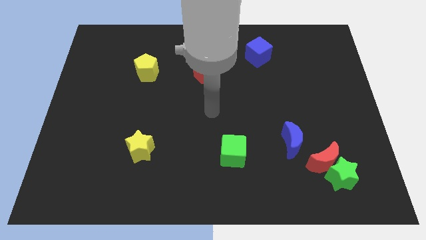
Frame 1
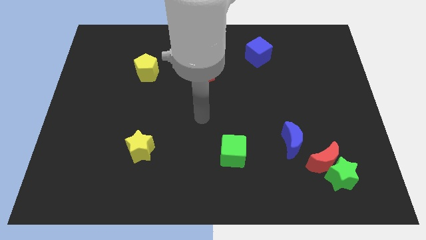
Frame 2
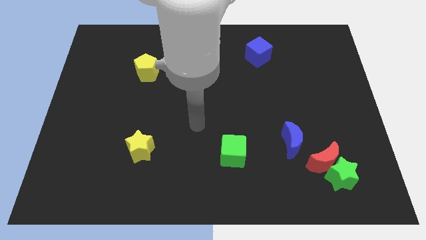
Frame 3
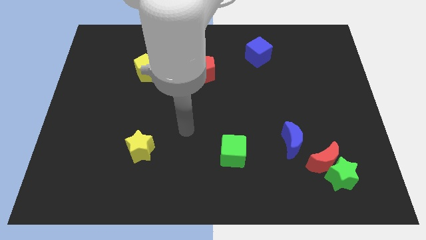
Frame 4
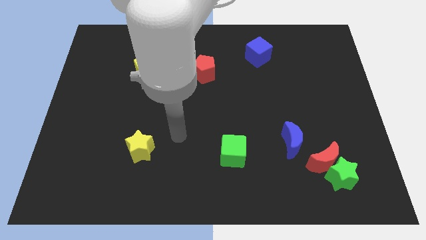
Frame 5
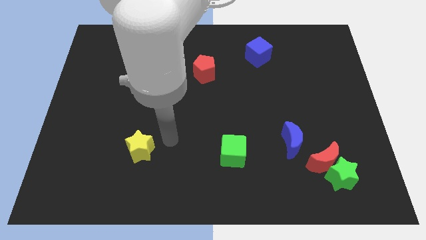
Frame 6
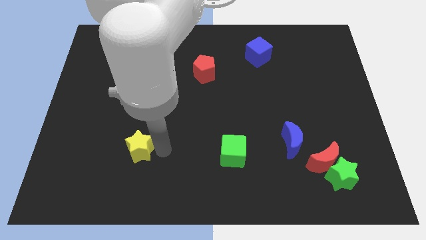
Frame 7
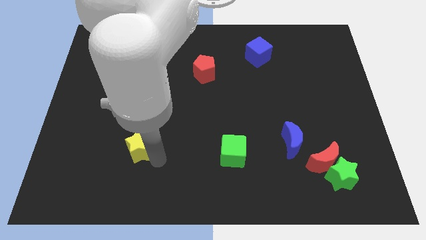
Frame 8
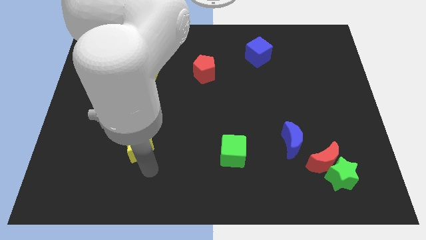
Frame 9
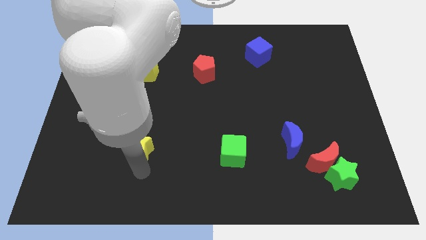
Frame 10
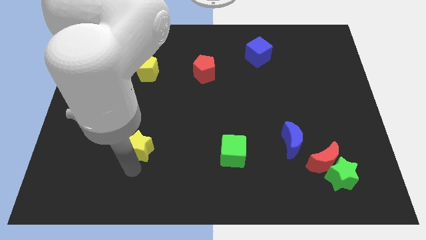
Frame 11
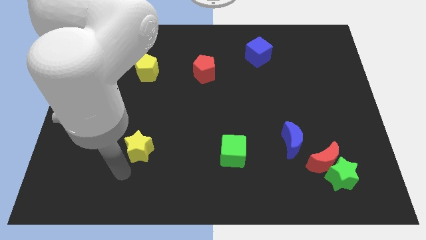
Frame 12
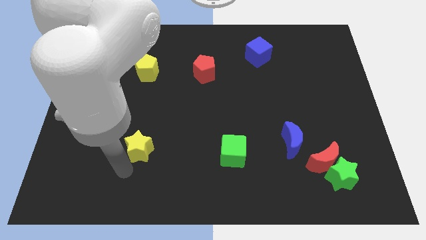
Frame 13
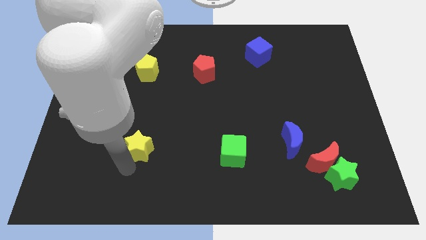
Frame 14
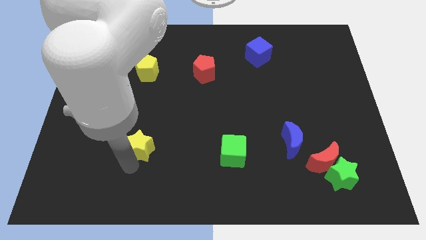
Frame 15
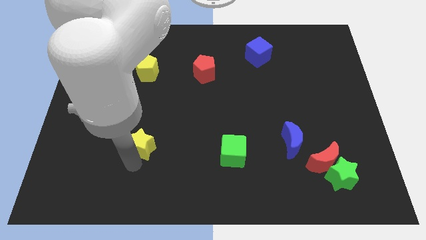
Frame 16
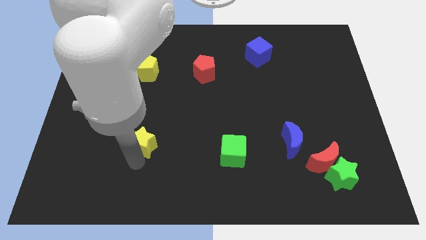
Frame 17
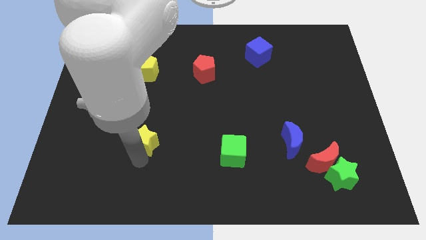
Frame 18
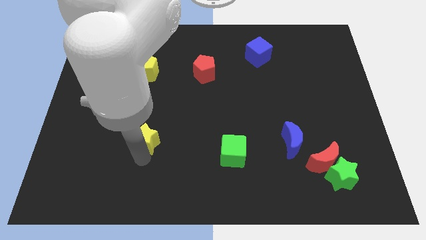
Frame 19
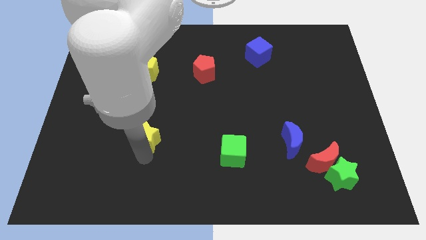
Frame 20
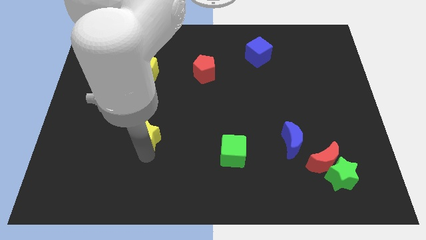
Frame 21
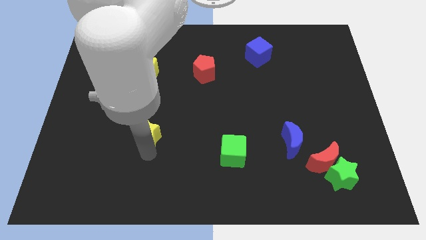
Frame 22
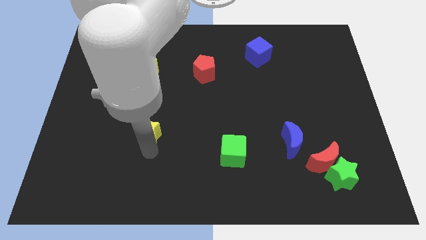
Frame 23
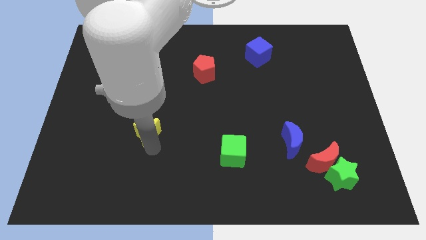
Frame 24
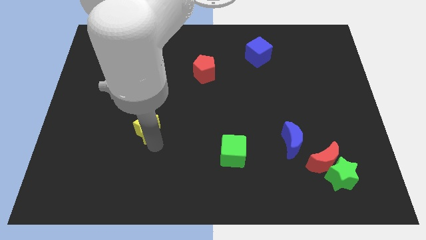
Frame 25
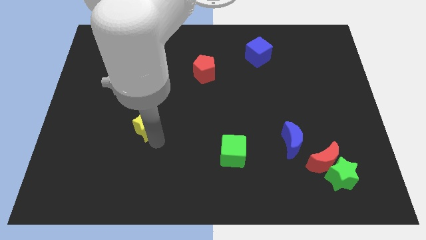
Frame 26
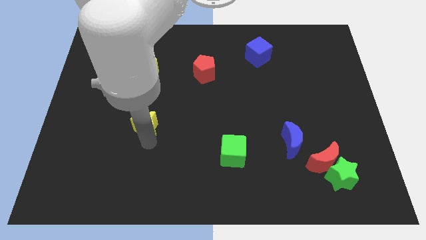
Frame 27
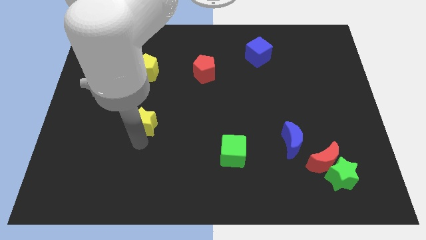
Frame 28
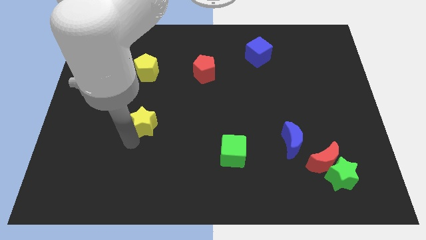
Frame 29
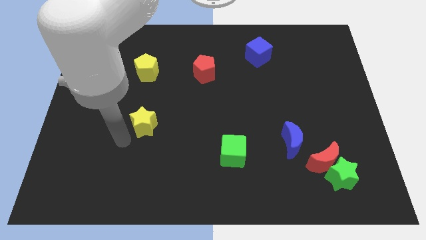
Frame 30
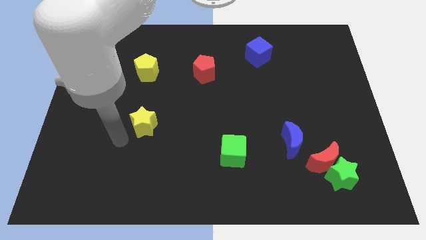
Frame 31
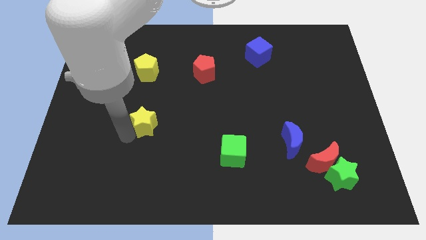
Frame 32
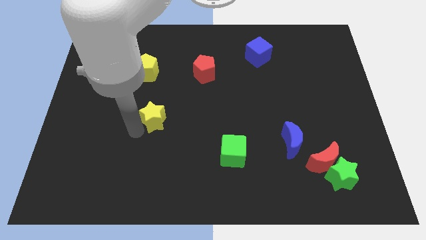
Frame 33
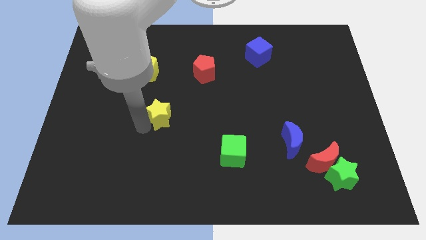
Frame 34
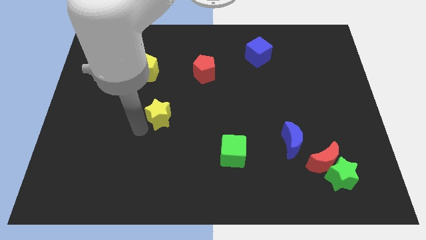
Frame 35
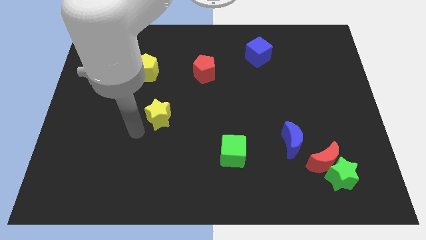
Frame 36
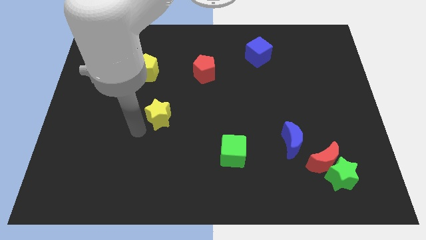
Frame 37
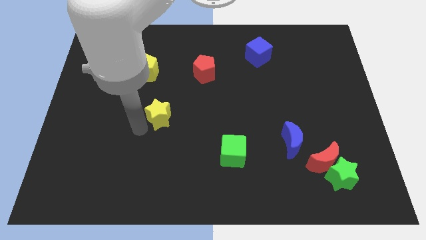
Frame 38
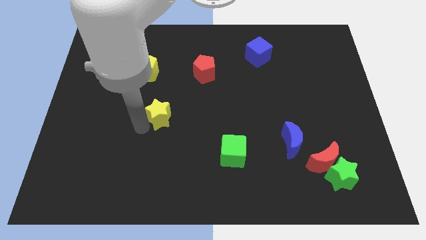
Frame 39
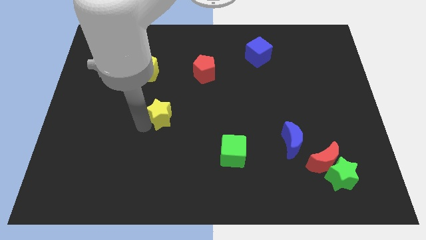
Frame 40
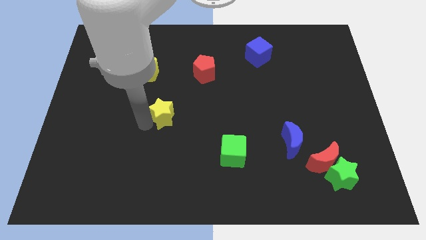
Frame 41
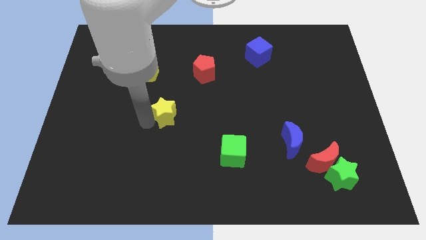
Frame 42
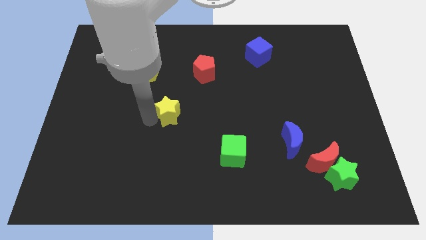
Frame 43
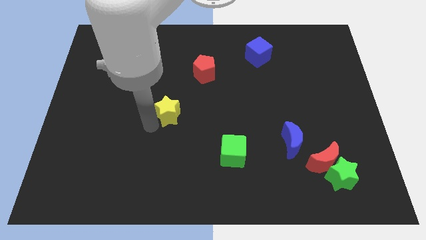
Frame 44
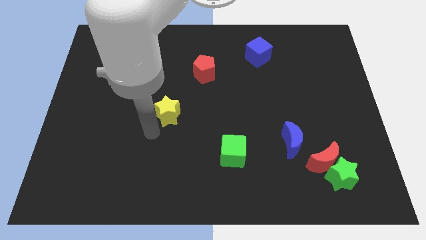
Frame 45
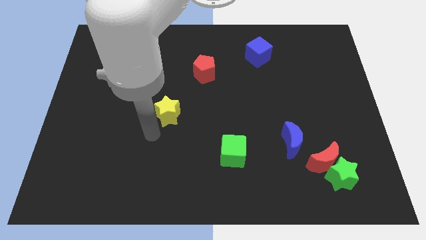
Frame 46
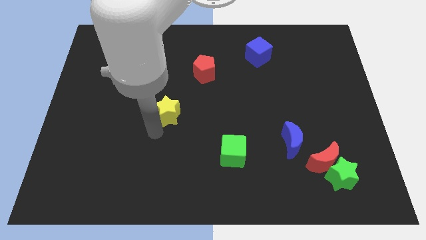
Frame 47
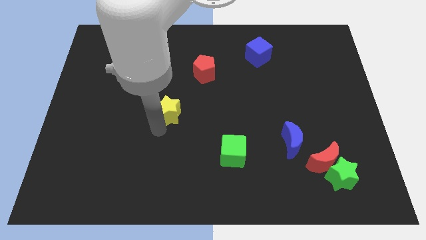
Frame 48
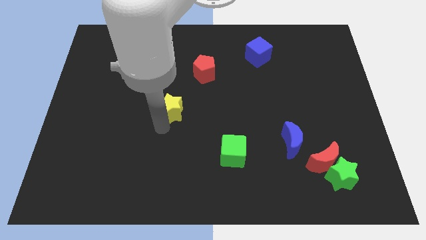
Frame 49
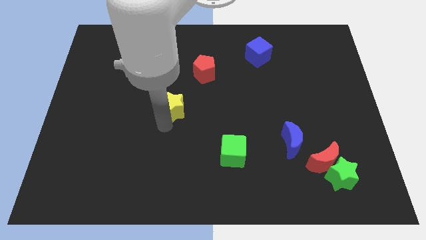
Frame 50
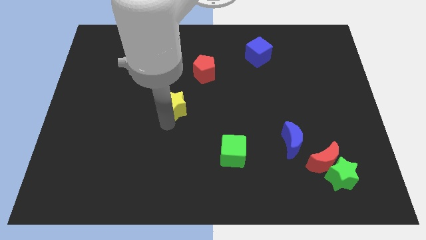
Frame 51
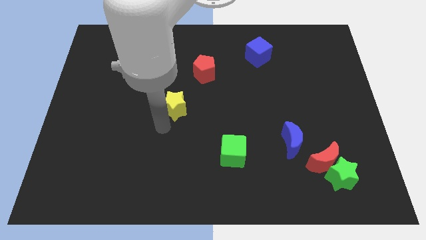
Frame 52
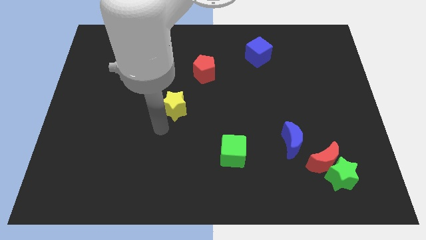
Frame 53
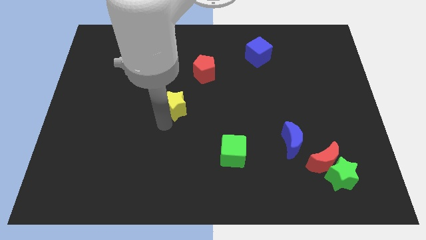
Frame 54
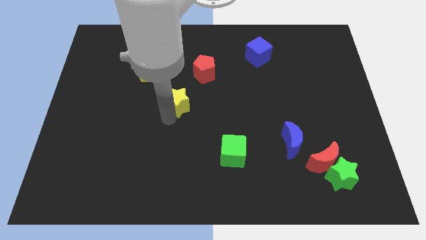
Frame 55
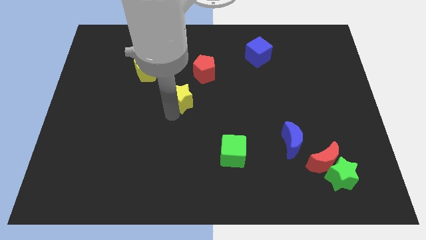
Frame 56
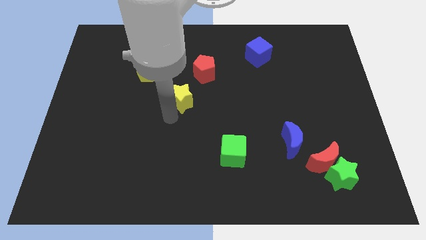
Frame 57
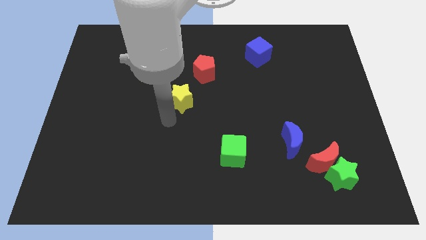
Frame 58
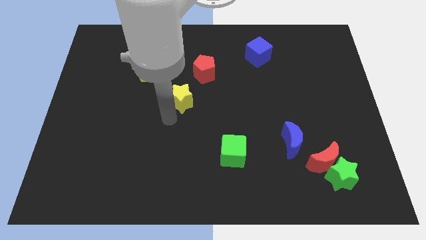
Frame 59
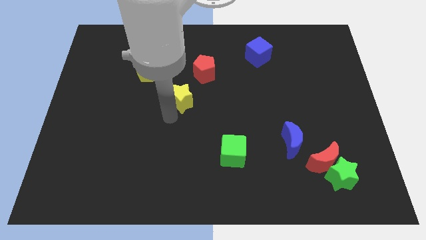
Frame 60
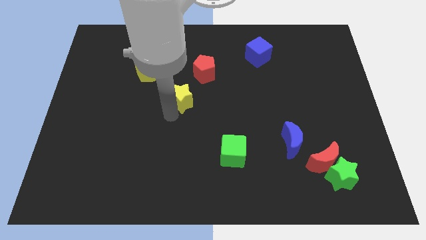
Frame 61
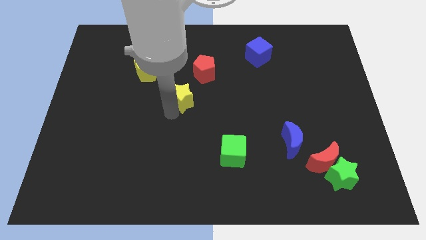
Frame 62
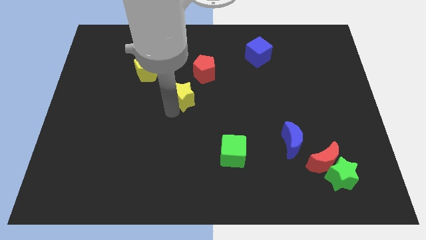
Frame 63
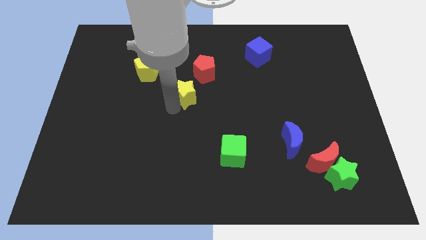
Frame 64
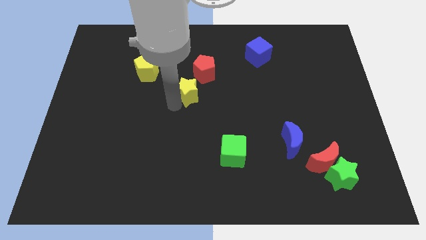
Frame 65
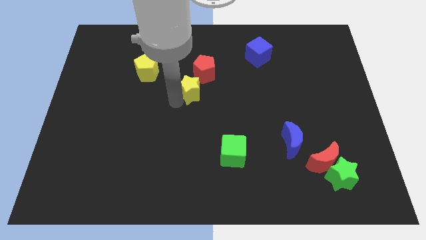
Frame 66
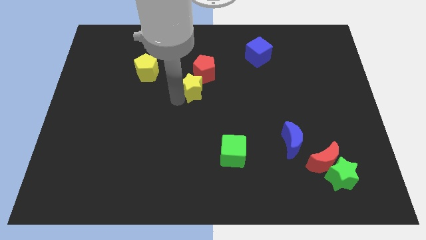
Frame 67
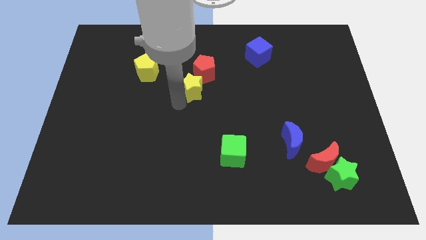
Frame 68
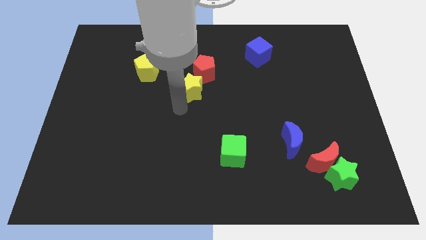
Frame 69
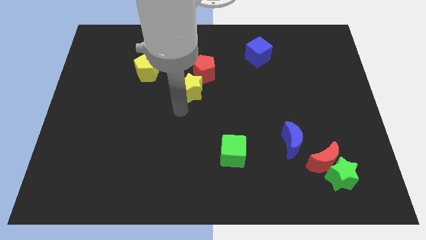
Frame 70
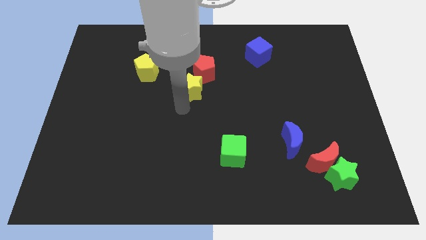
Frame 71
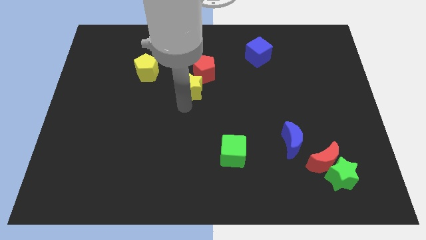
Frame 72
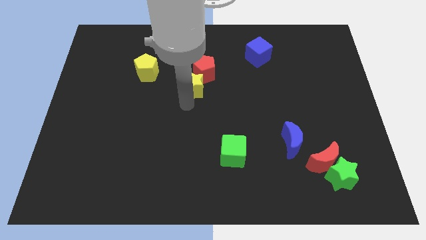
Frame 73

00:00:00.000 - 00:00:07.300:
slide the yellow star to the red pentagon
